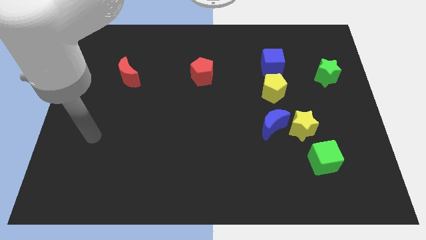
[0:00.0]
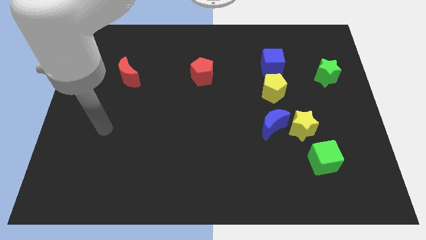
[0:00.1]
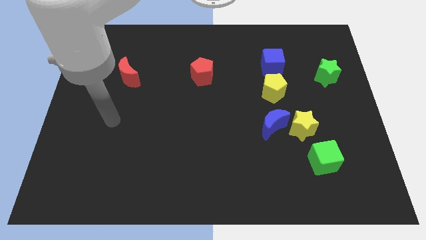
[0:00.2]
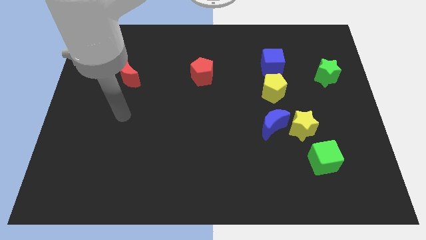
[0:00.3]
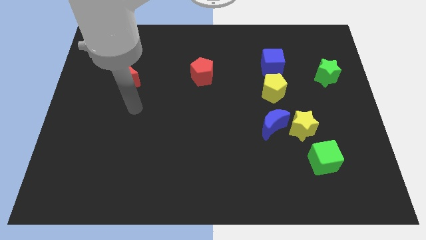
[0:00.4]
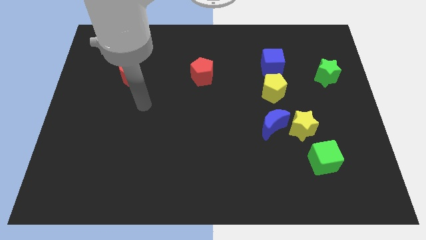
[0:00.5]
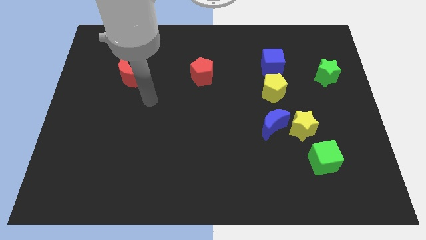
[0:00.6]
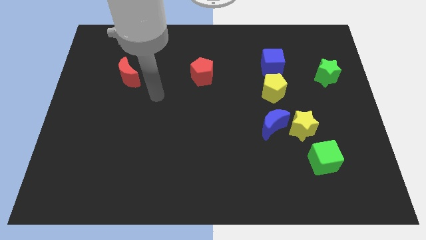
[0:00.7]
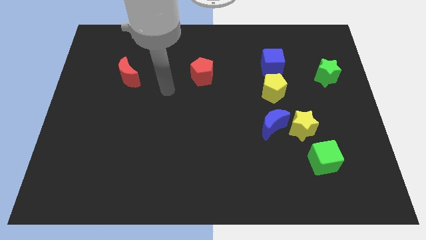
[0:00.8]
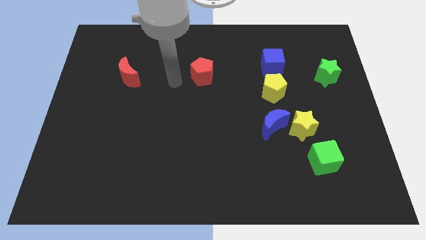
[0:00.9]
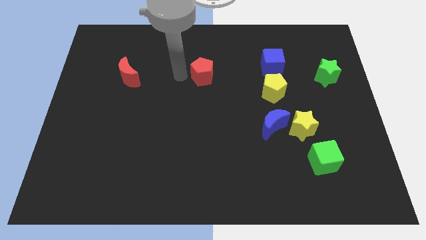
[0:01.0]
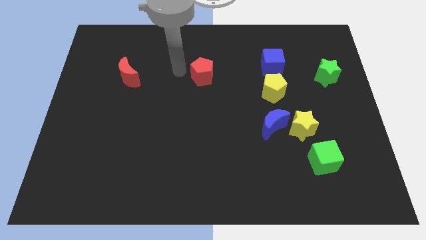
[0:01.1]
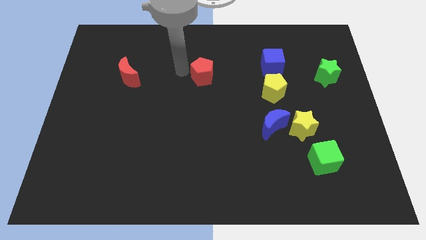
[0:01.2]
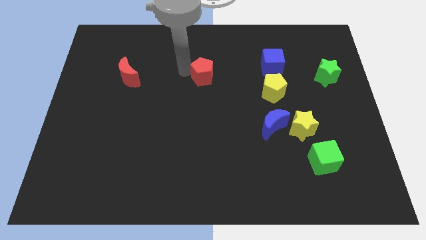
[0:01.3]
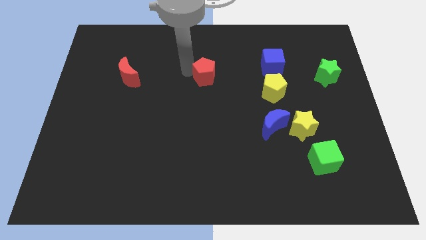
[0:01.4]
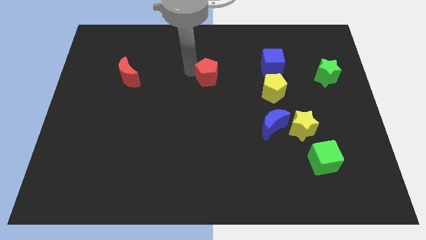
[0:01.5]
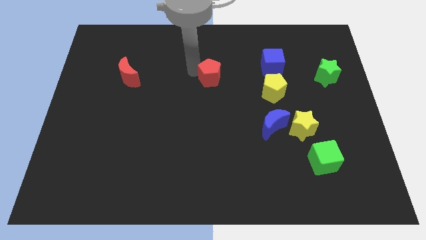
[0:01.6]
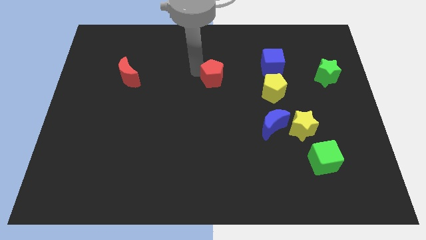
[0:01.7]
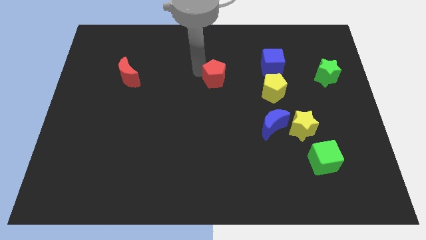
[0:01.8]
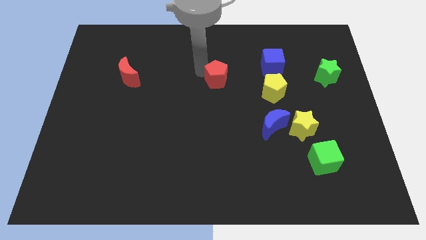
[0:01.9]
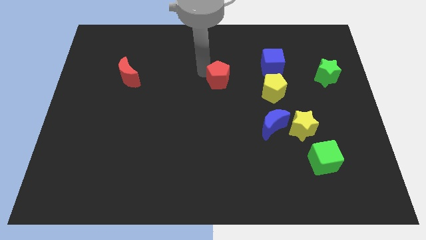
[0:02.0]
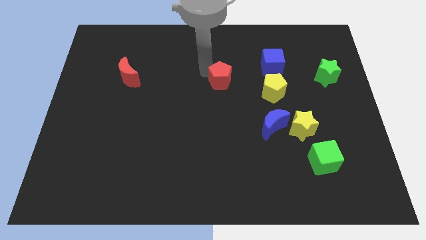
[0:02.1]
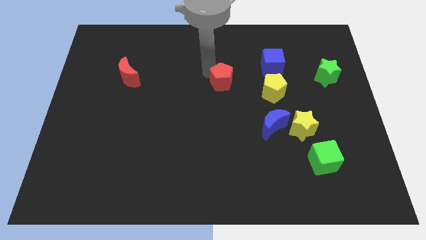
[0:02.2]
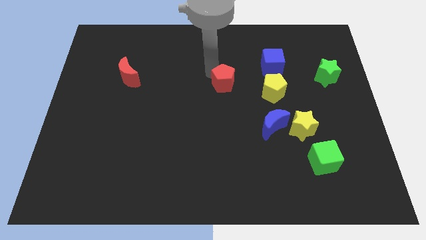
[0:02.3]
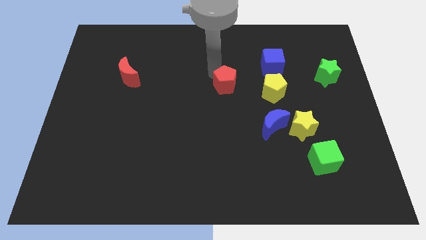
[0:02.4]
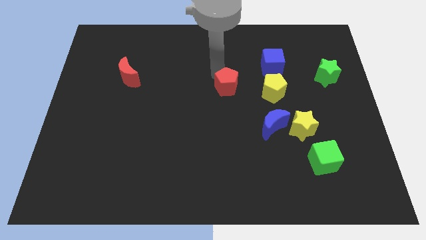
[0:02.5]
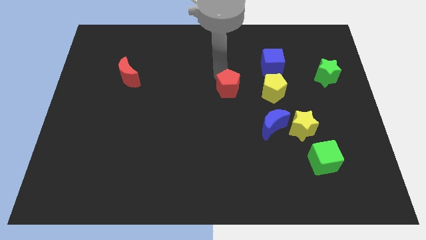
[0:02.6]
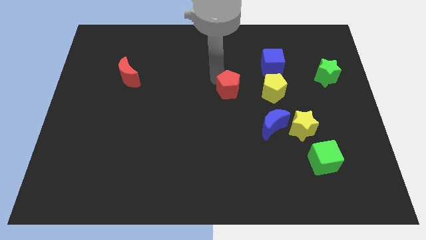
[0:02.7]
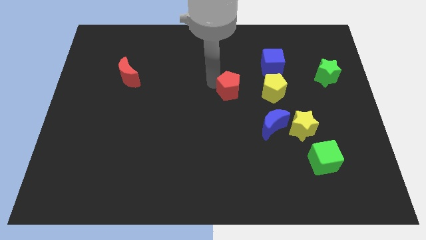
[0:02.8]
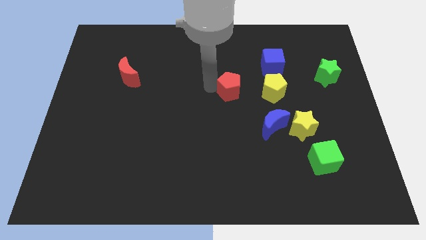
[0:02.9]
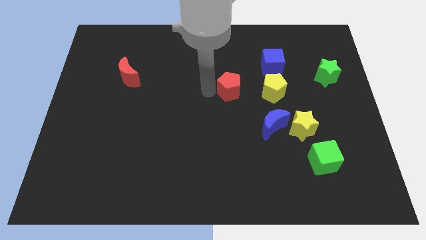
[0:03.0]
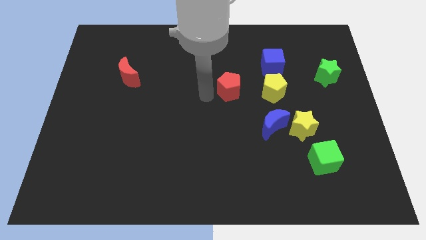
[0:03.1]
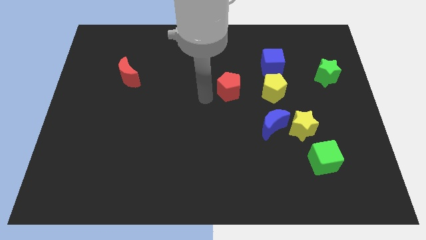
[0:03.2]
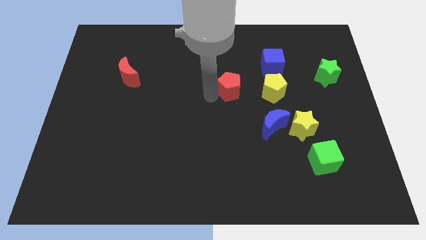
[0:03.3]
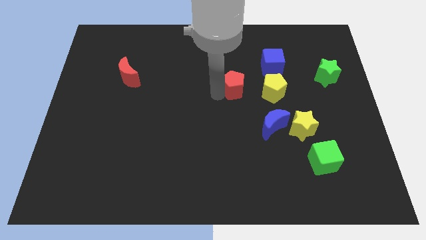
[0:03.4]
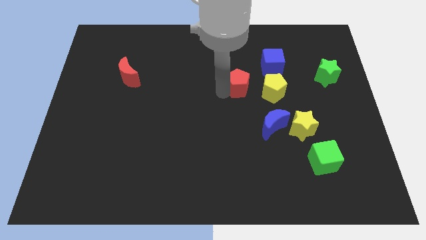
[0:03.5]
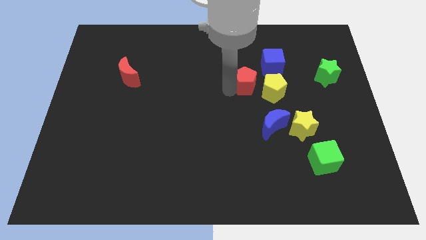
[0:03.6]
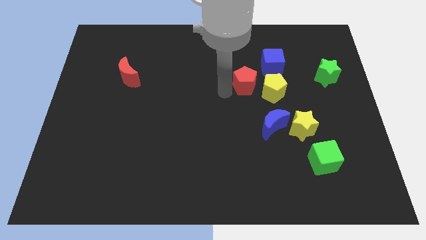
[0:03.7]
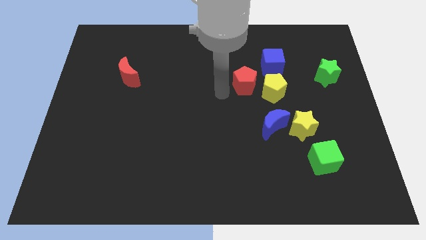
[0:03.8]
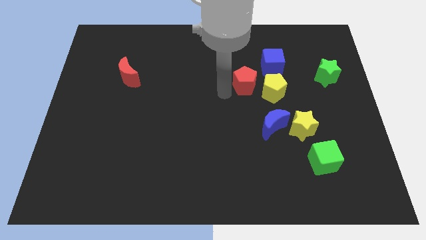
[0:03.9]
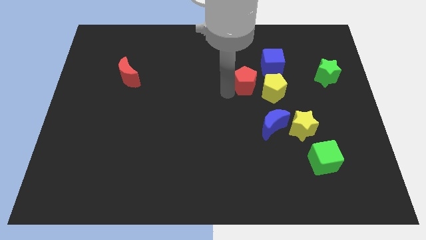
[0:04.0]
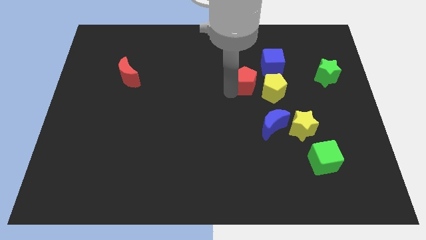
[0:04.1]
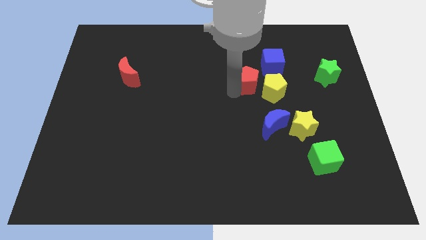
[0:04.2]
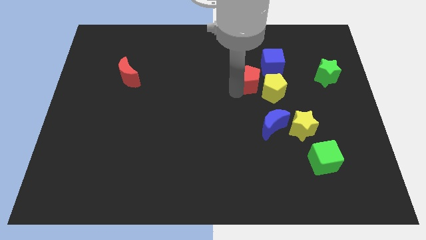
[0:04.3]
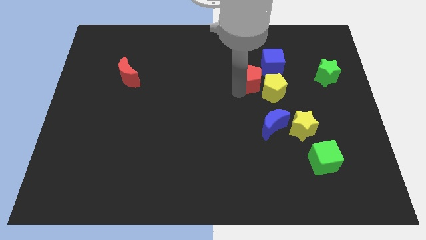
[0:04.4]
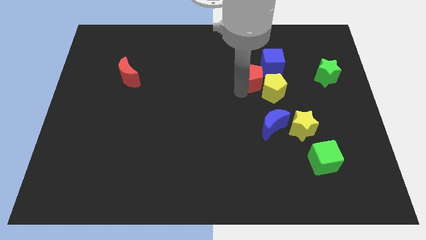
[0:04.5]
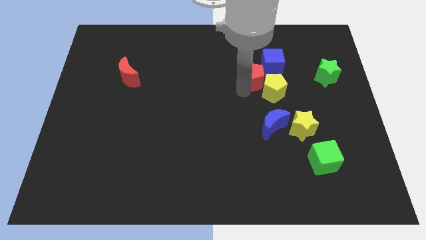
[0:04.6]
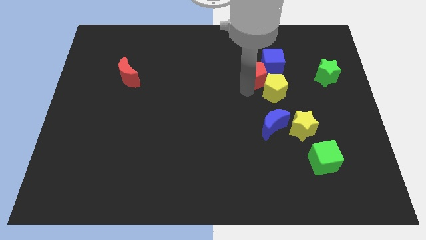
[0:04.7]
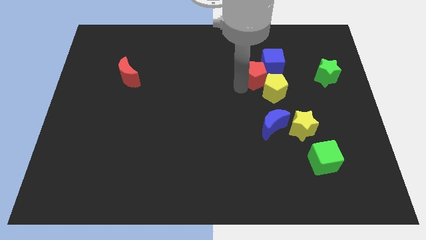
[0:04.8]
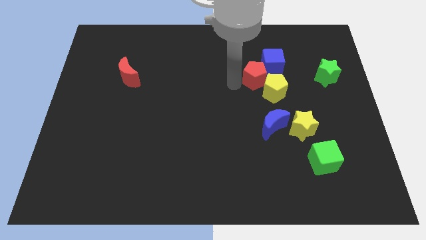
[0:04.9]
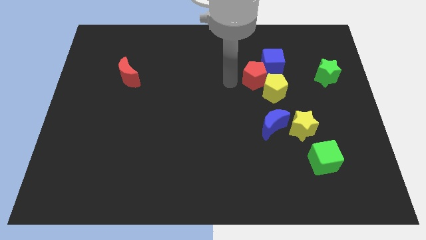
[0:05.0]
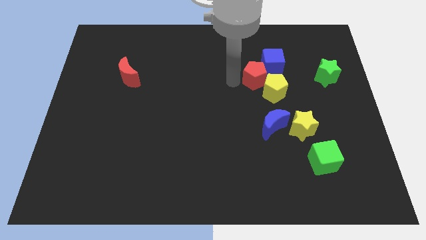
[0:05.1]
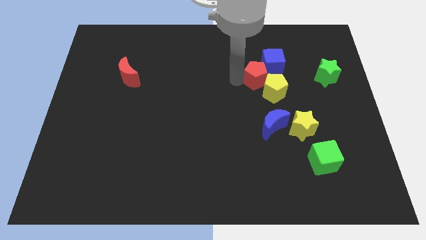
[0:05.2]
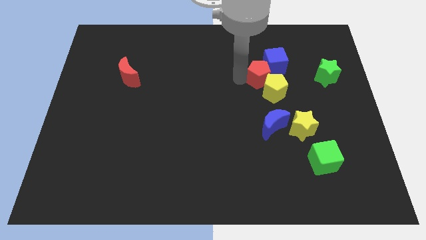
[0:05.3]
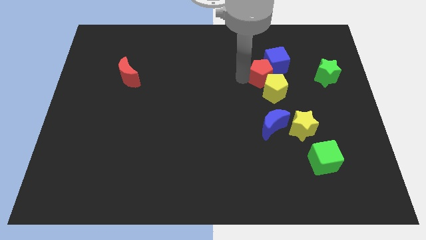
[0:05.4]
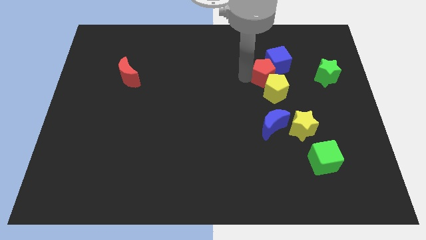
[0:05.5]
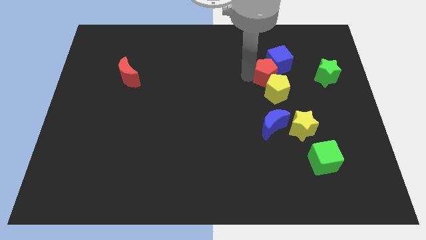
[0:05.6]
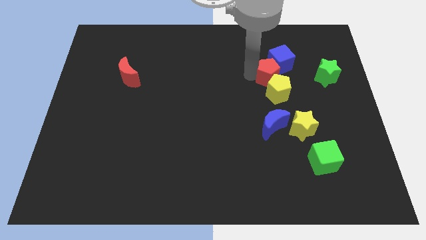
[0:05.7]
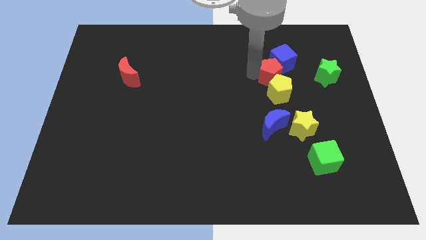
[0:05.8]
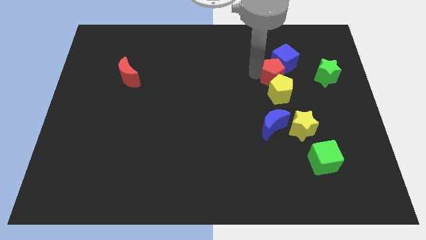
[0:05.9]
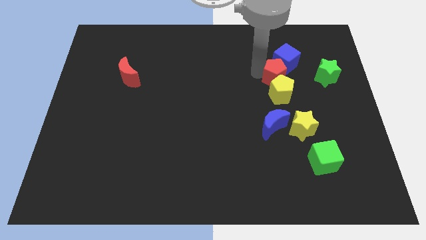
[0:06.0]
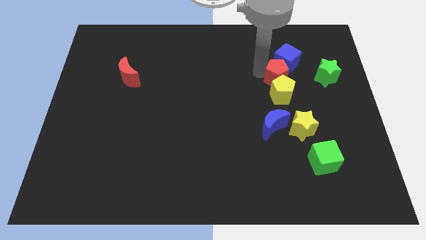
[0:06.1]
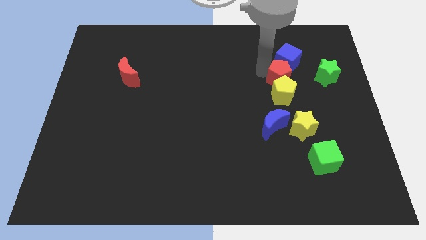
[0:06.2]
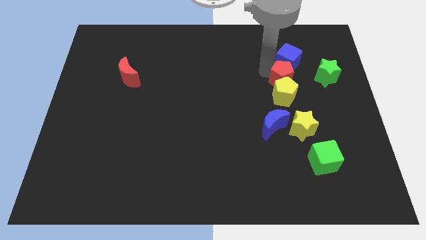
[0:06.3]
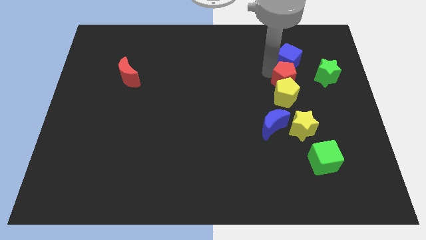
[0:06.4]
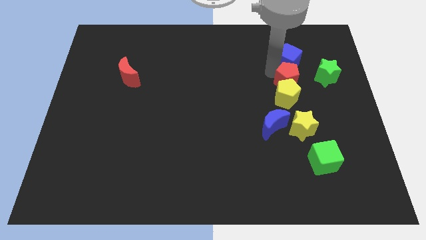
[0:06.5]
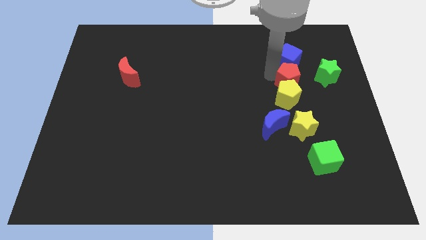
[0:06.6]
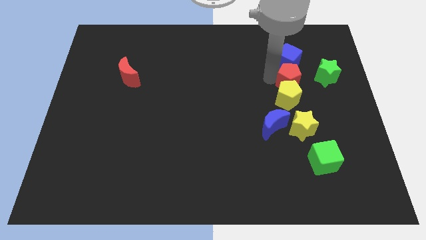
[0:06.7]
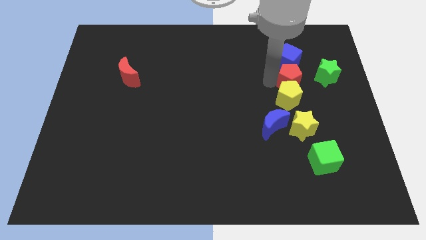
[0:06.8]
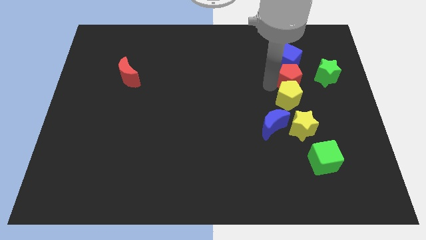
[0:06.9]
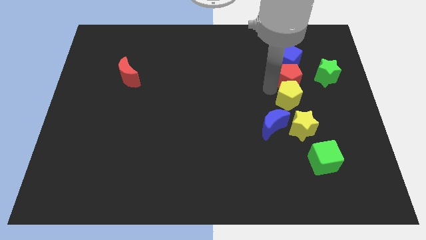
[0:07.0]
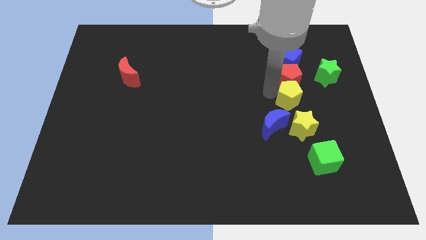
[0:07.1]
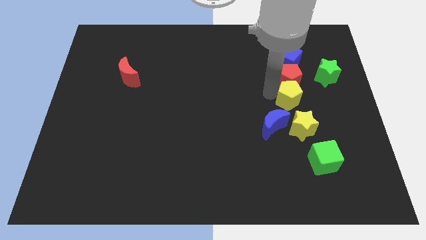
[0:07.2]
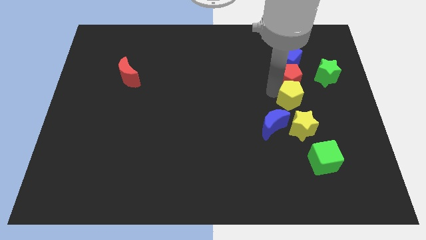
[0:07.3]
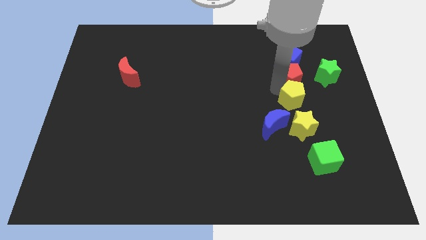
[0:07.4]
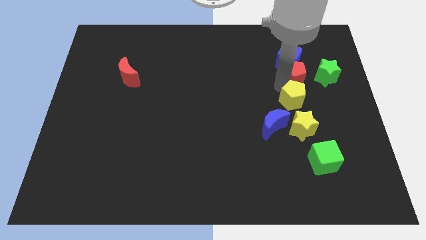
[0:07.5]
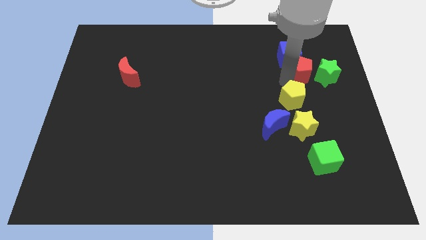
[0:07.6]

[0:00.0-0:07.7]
put the red pentagon towards the green star

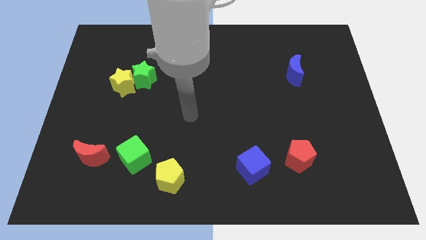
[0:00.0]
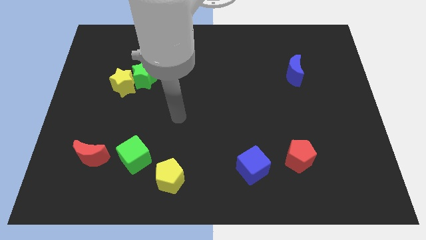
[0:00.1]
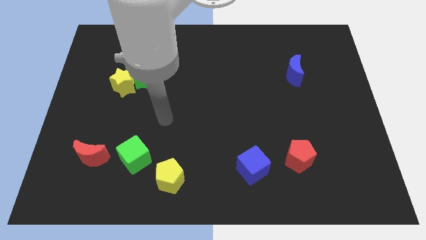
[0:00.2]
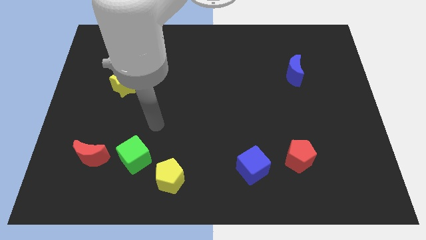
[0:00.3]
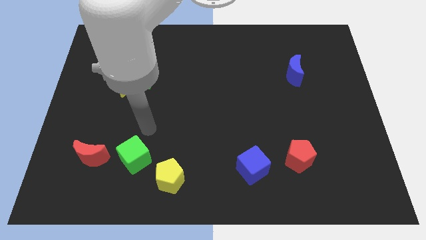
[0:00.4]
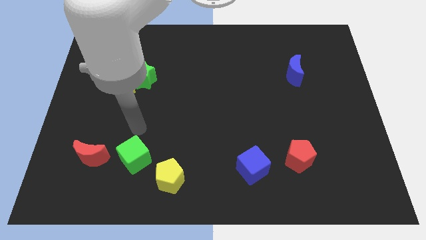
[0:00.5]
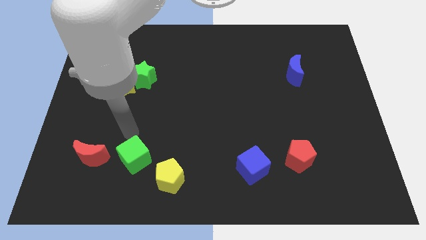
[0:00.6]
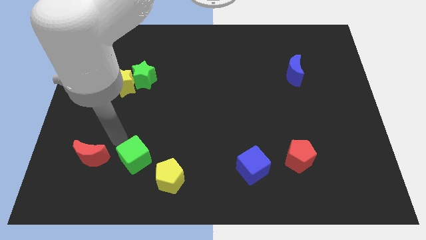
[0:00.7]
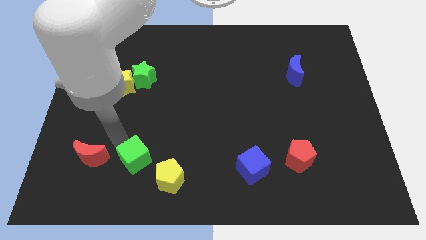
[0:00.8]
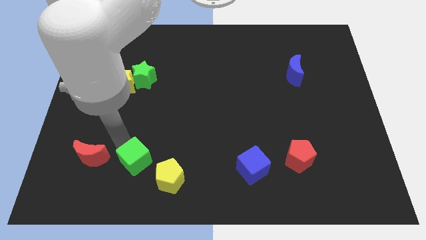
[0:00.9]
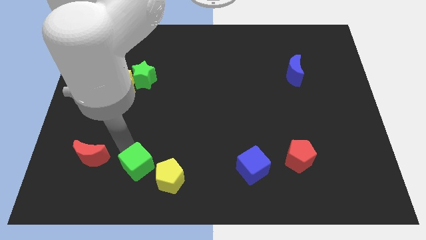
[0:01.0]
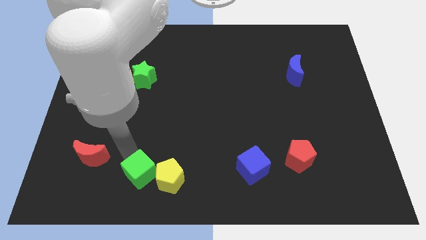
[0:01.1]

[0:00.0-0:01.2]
slide the green cube next to the yellow pentagon
